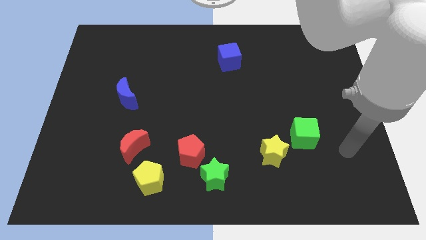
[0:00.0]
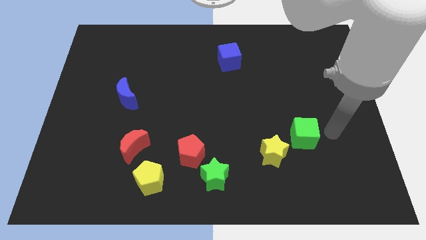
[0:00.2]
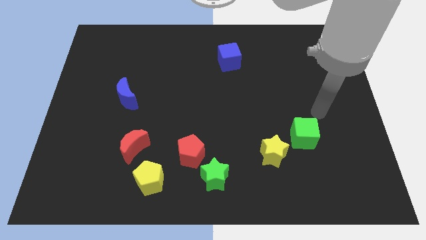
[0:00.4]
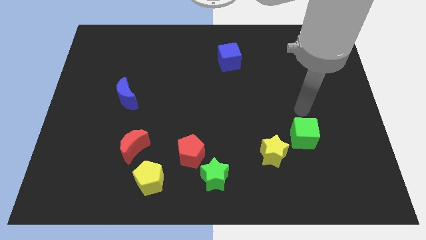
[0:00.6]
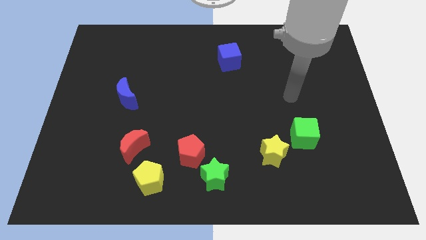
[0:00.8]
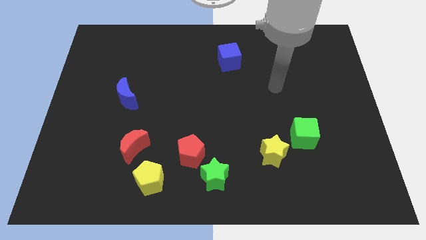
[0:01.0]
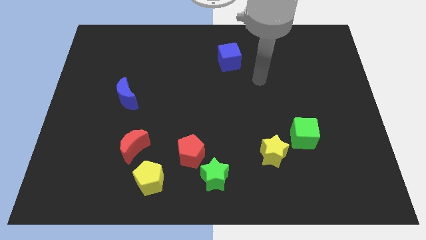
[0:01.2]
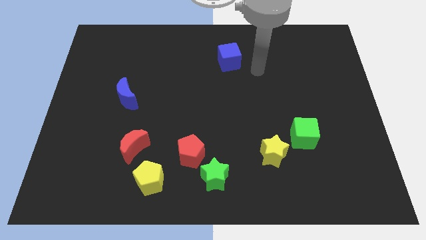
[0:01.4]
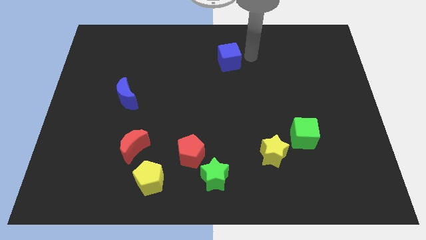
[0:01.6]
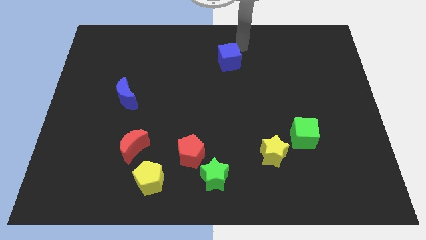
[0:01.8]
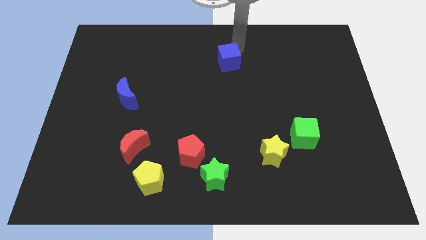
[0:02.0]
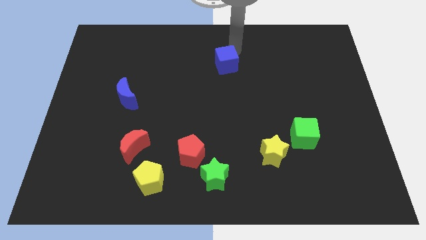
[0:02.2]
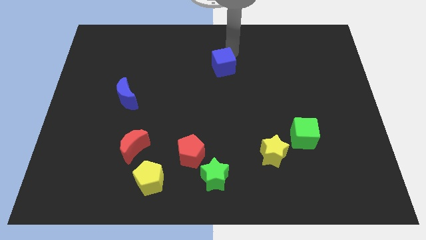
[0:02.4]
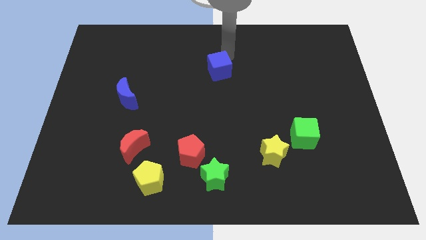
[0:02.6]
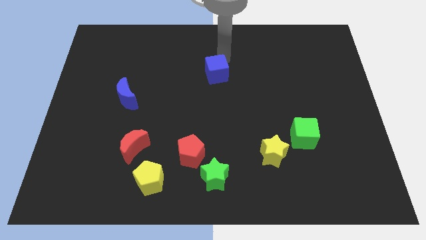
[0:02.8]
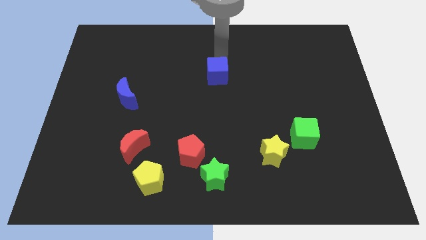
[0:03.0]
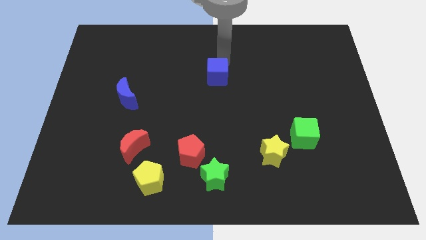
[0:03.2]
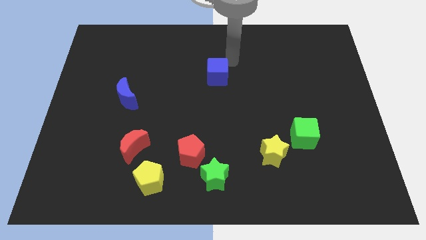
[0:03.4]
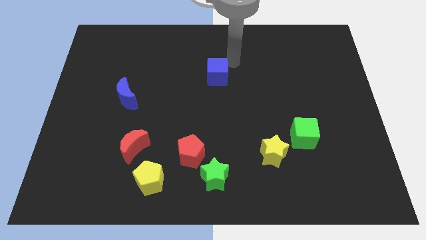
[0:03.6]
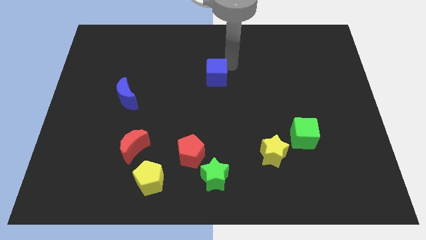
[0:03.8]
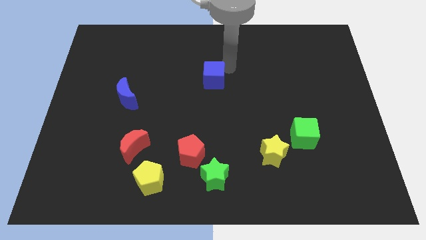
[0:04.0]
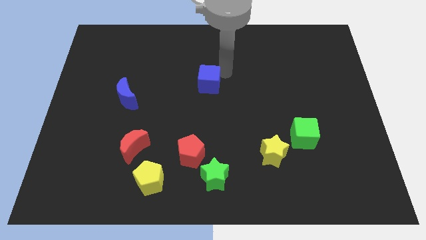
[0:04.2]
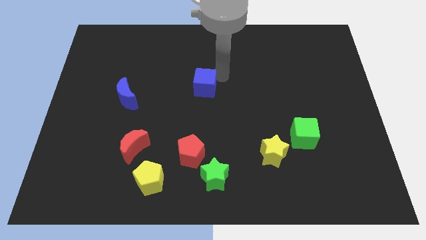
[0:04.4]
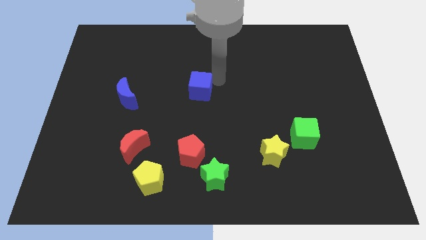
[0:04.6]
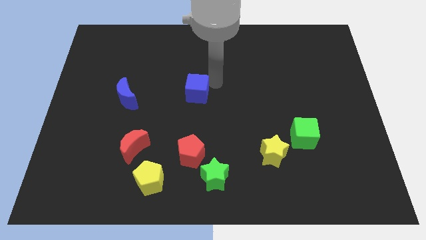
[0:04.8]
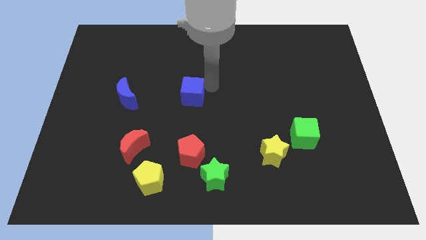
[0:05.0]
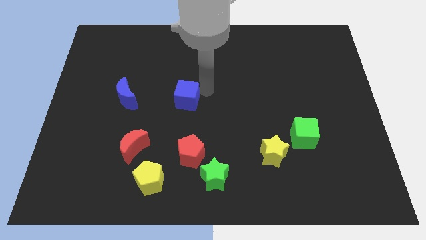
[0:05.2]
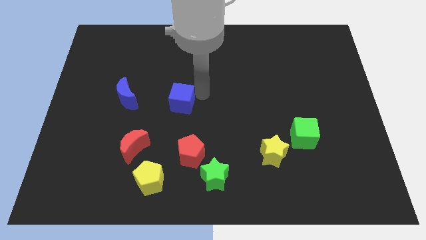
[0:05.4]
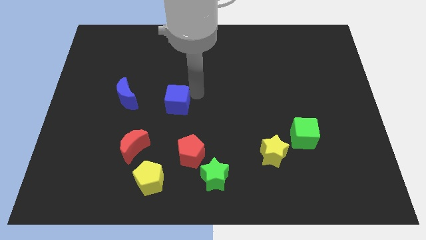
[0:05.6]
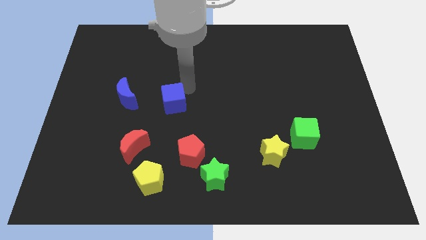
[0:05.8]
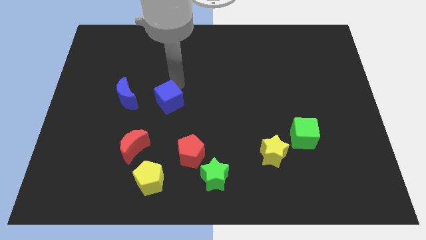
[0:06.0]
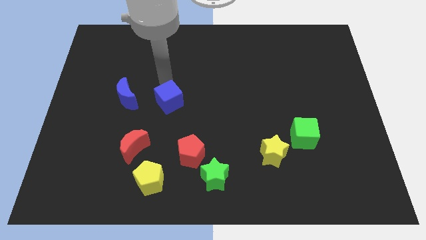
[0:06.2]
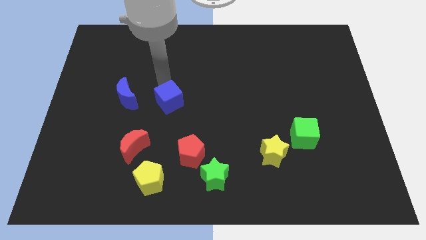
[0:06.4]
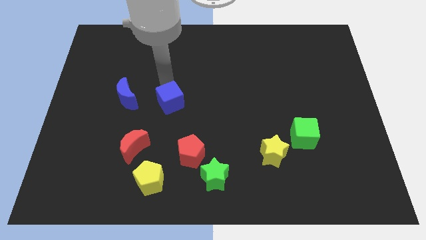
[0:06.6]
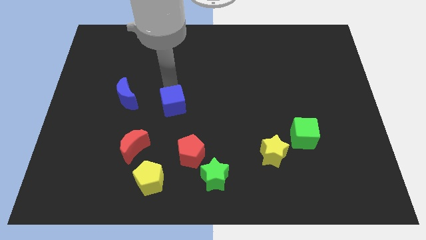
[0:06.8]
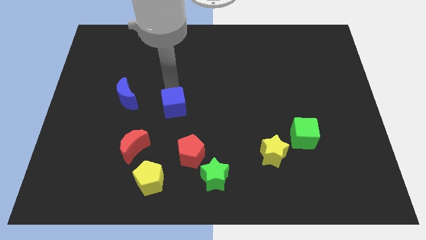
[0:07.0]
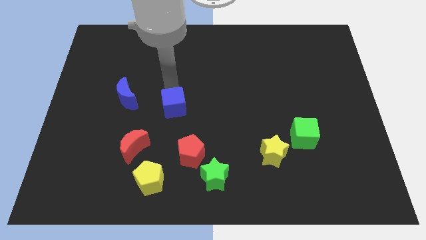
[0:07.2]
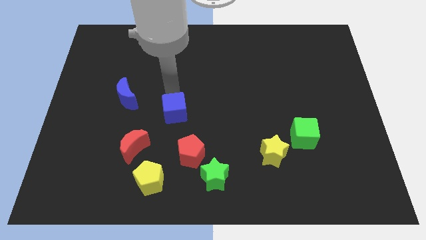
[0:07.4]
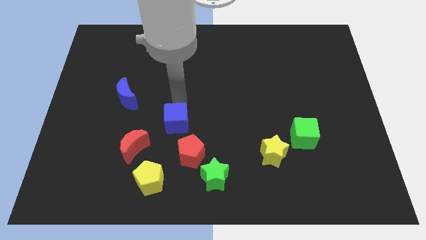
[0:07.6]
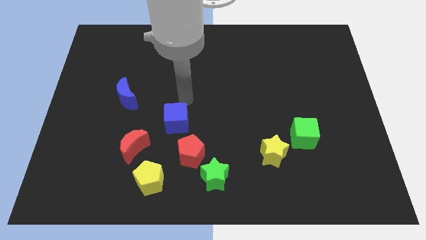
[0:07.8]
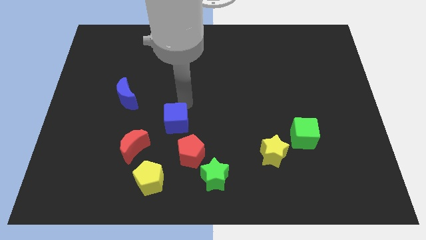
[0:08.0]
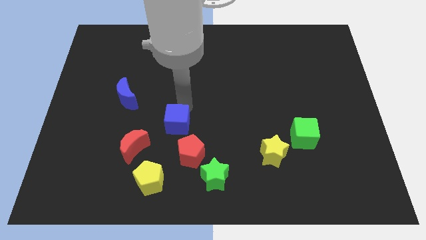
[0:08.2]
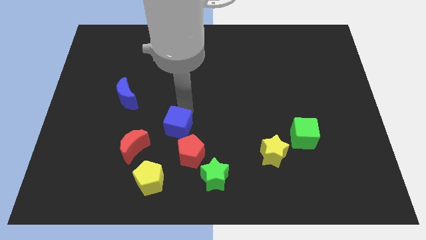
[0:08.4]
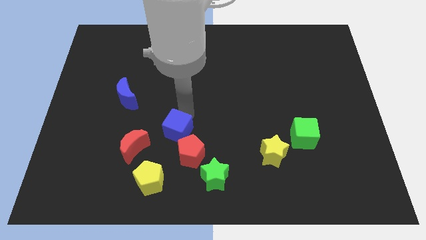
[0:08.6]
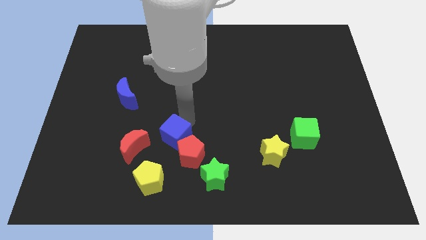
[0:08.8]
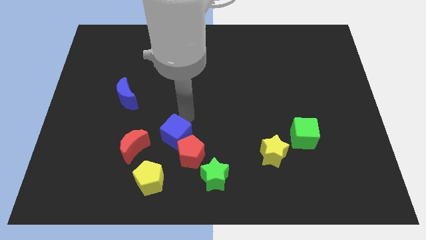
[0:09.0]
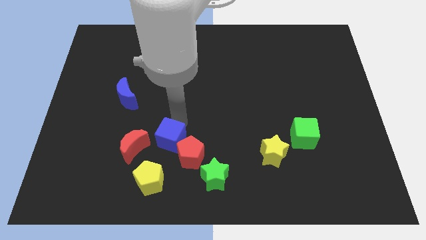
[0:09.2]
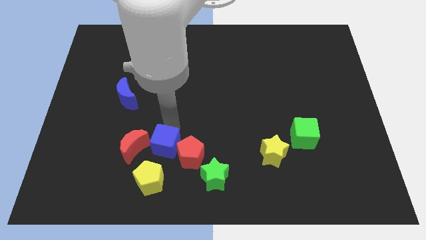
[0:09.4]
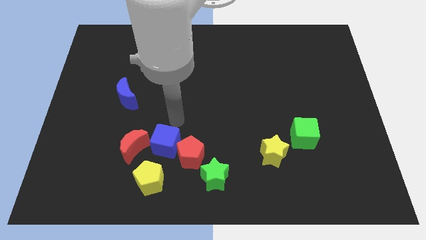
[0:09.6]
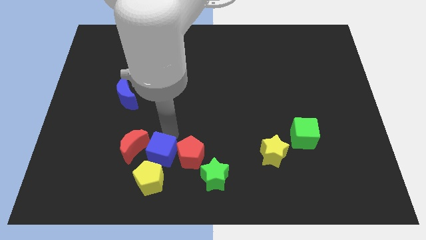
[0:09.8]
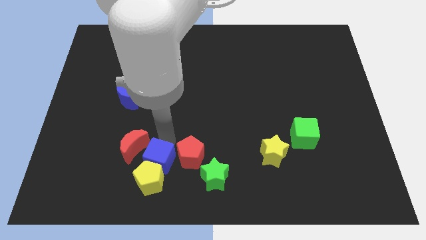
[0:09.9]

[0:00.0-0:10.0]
push the blue cube towards the yellow pentagon

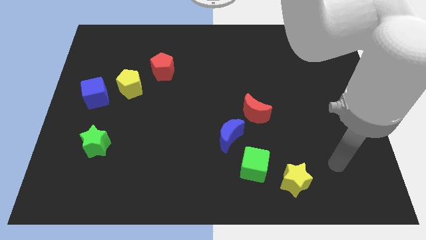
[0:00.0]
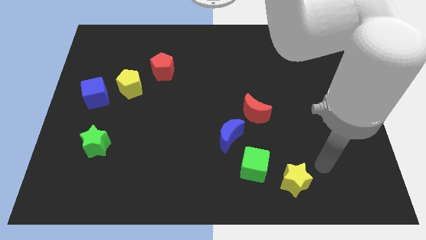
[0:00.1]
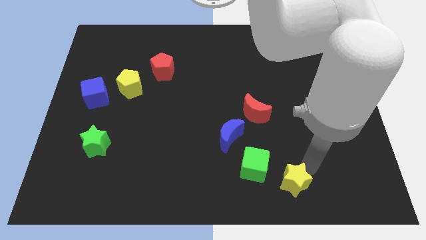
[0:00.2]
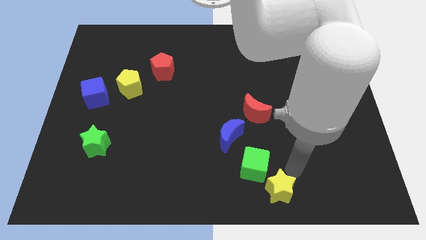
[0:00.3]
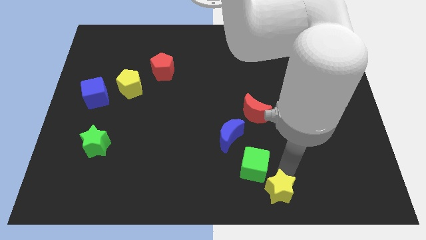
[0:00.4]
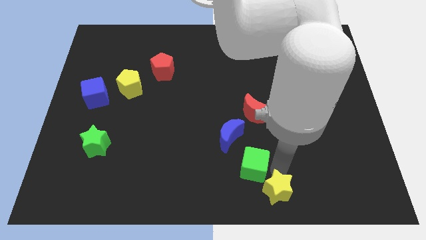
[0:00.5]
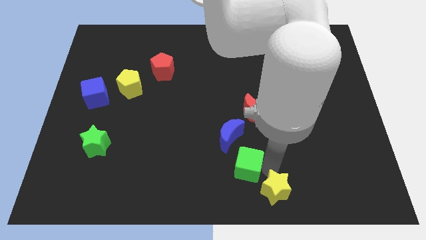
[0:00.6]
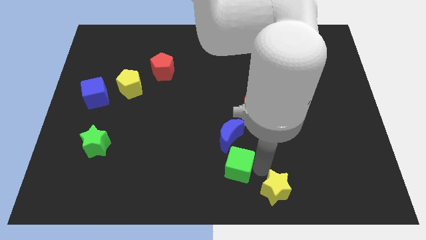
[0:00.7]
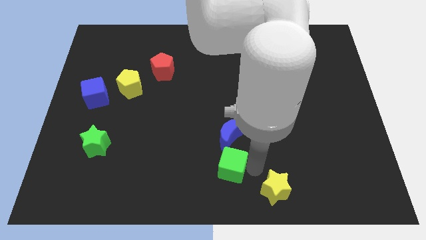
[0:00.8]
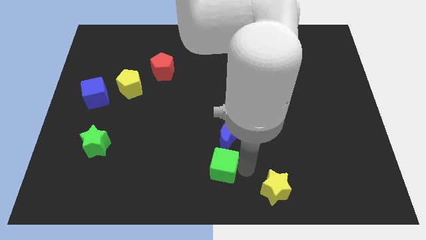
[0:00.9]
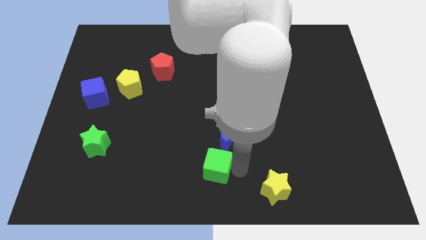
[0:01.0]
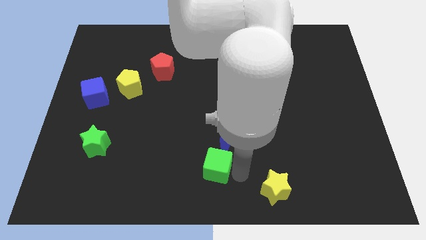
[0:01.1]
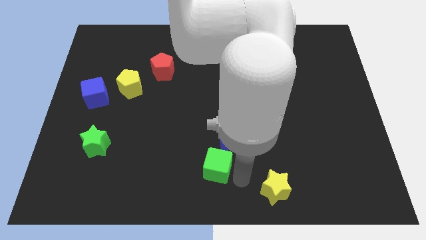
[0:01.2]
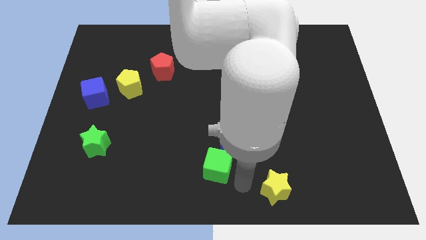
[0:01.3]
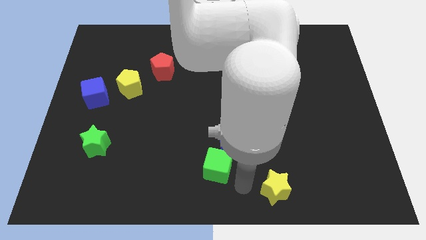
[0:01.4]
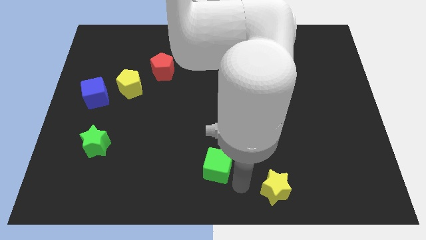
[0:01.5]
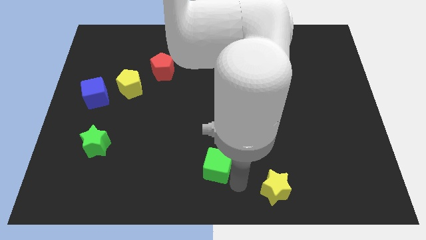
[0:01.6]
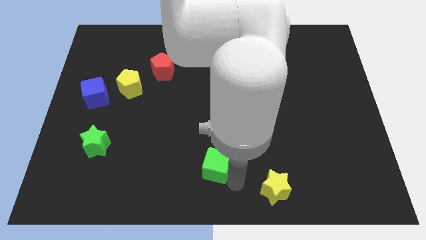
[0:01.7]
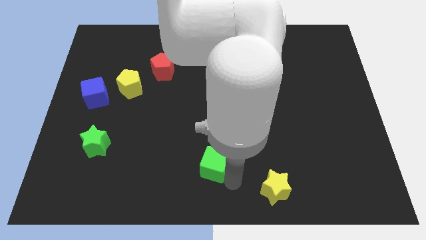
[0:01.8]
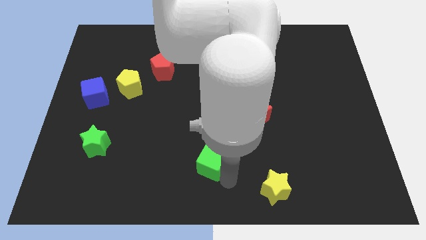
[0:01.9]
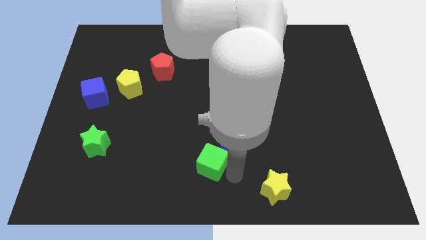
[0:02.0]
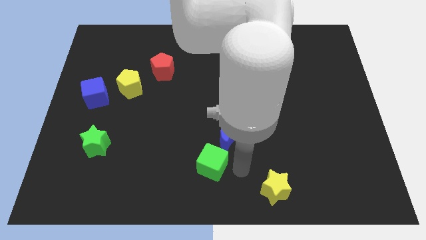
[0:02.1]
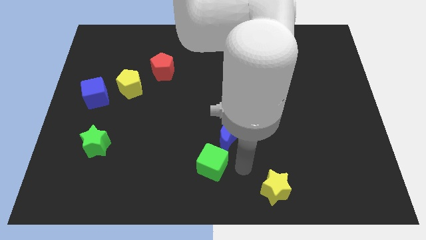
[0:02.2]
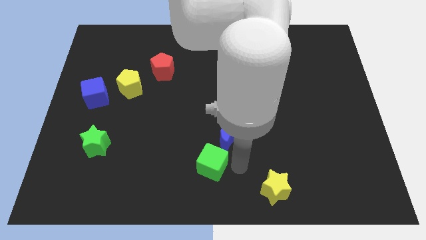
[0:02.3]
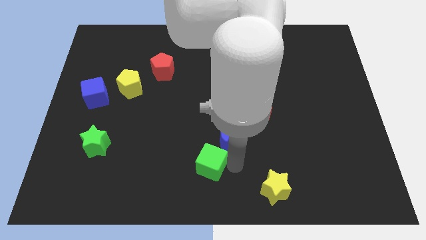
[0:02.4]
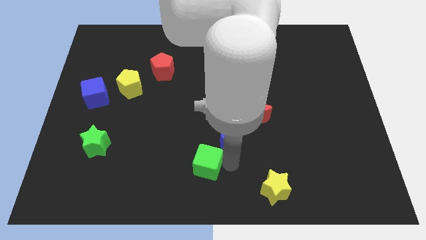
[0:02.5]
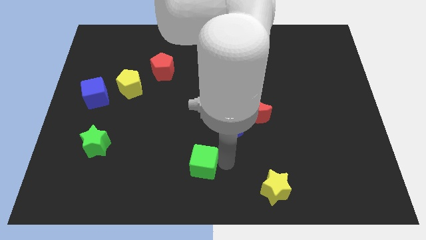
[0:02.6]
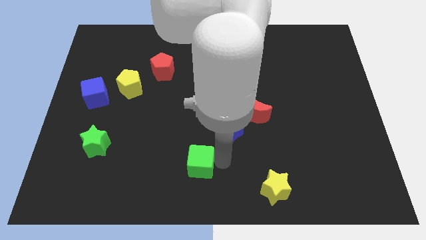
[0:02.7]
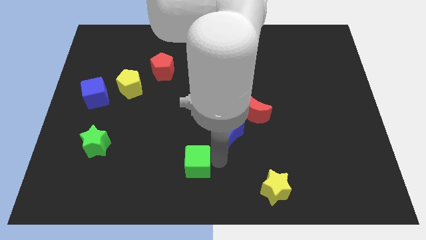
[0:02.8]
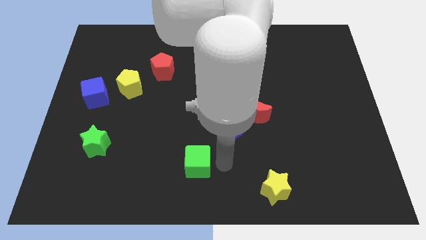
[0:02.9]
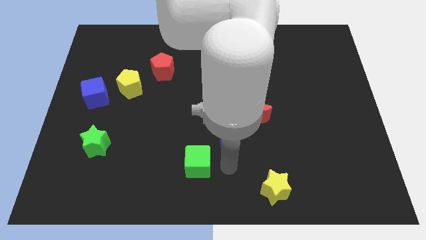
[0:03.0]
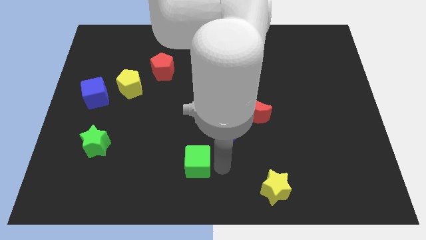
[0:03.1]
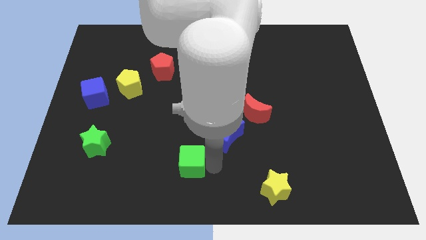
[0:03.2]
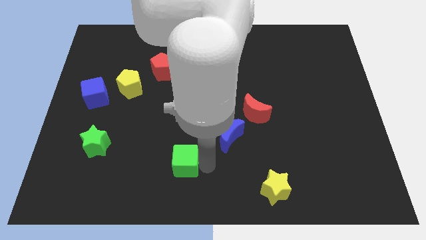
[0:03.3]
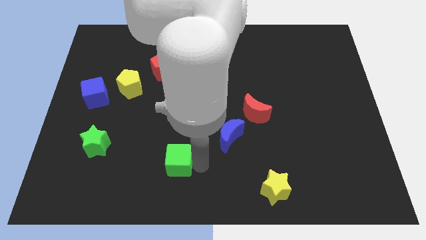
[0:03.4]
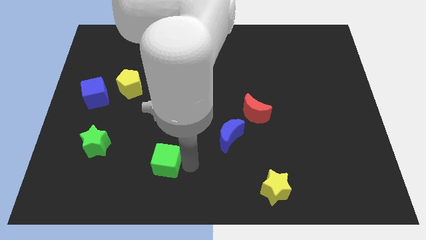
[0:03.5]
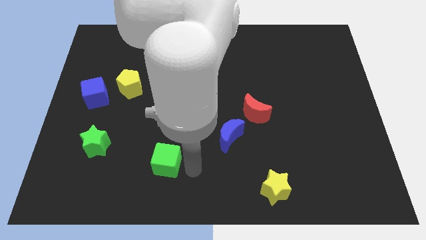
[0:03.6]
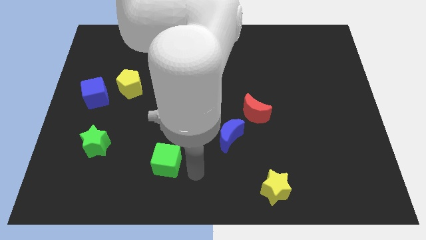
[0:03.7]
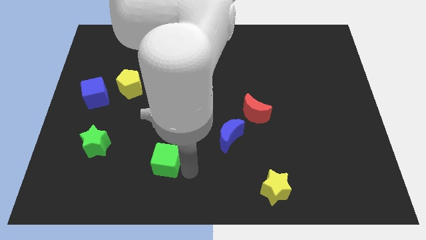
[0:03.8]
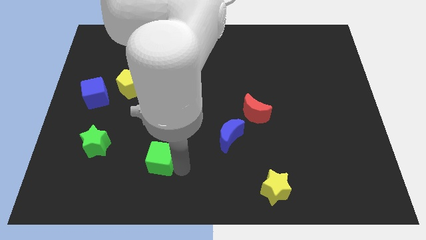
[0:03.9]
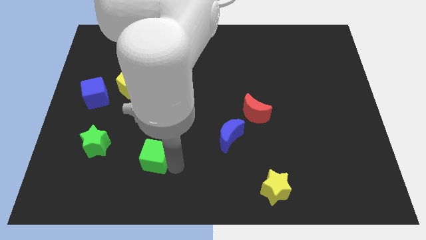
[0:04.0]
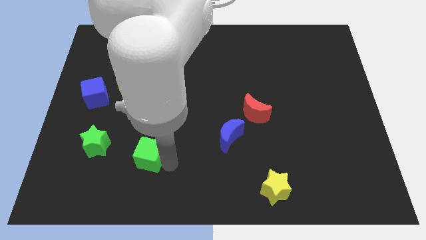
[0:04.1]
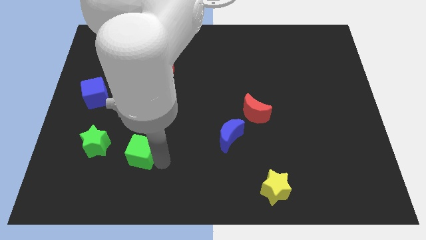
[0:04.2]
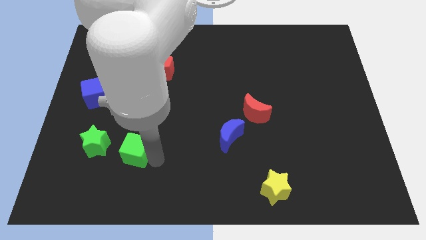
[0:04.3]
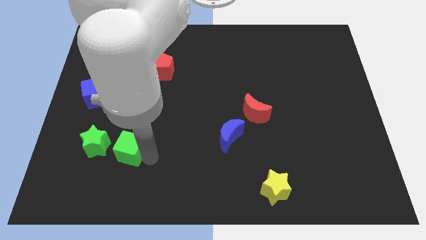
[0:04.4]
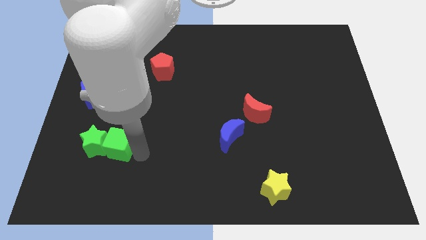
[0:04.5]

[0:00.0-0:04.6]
move the green cube next to the green star
